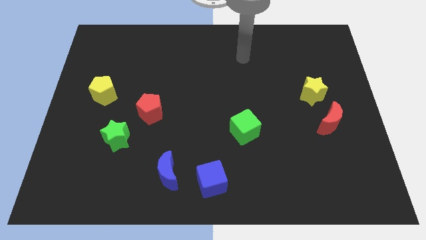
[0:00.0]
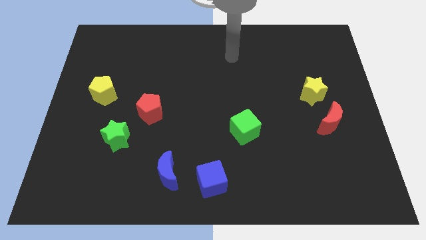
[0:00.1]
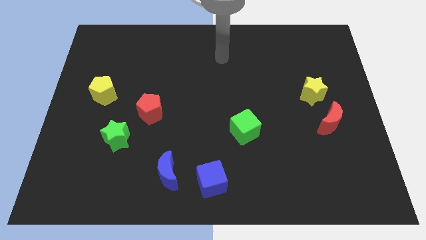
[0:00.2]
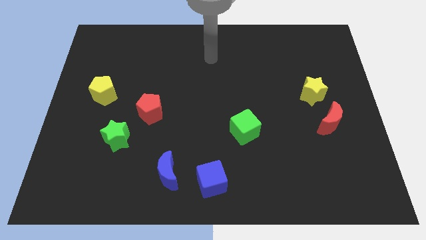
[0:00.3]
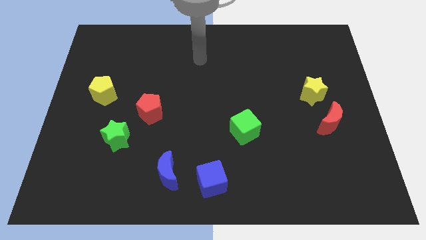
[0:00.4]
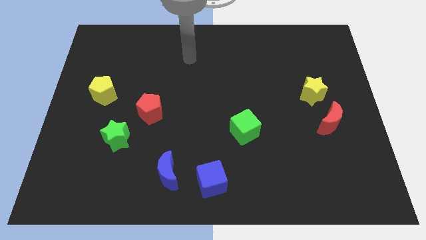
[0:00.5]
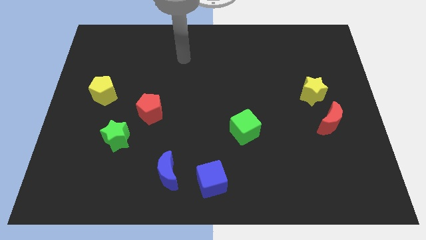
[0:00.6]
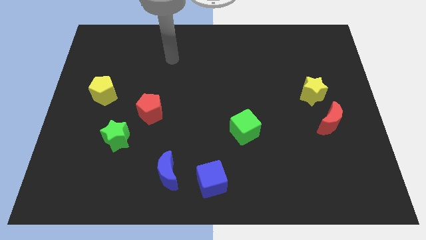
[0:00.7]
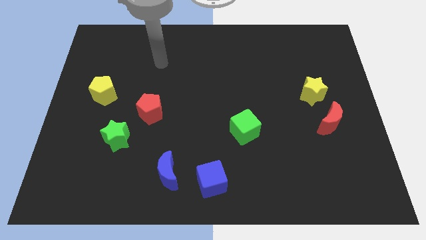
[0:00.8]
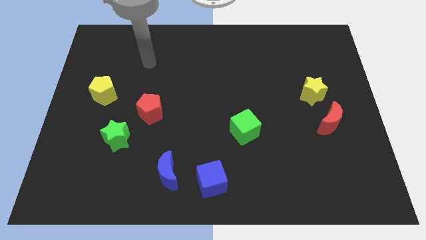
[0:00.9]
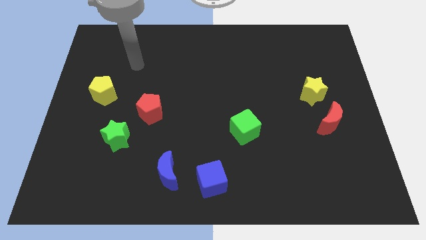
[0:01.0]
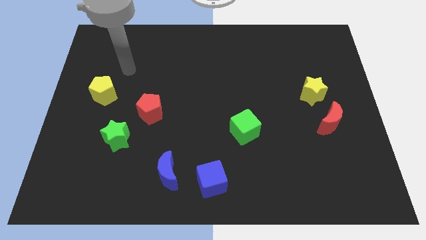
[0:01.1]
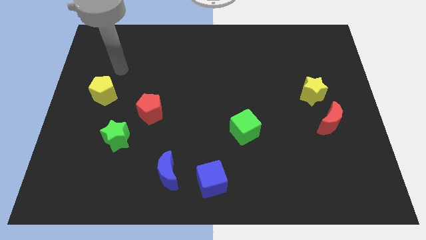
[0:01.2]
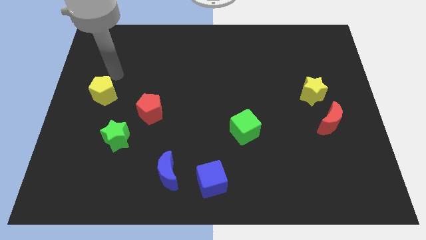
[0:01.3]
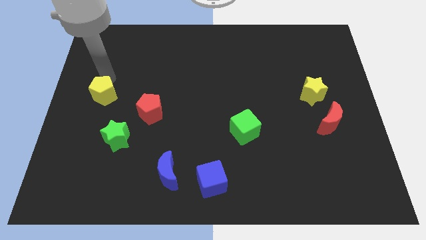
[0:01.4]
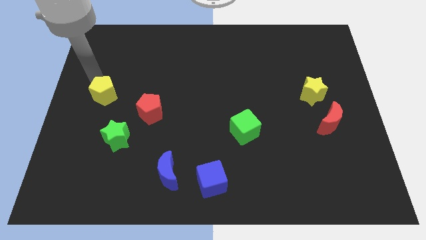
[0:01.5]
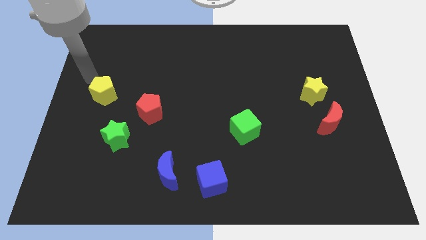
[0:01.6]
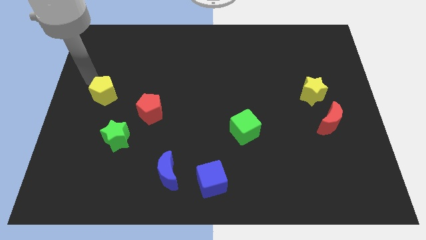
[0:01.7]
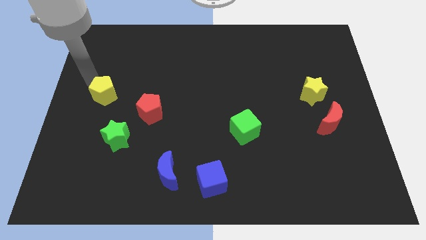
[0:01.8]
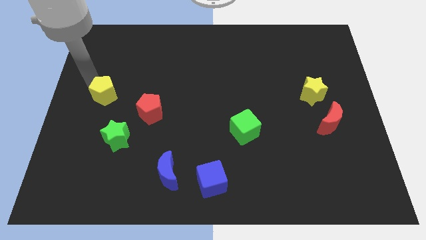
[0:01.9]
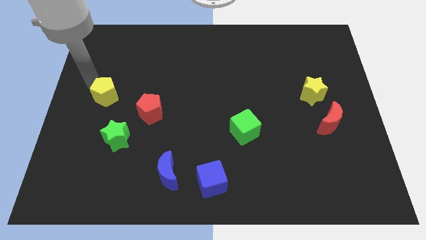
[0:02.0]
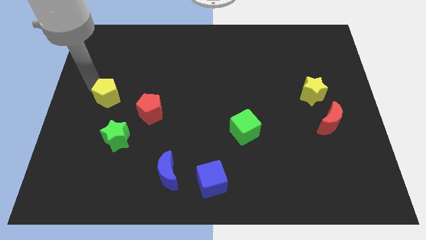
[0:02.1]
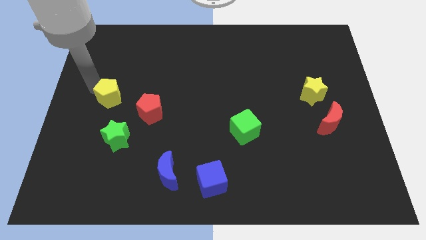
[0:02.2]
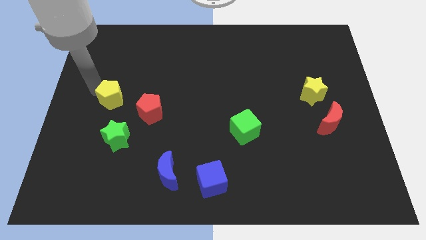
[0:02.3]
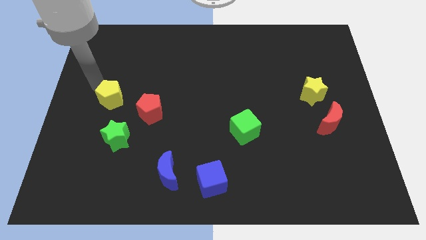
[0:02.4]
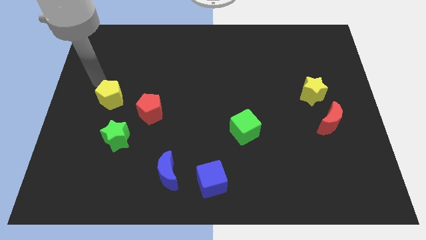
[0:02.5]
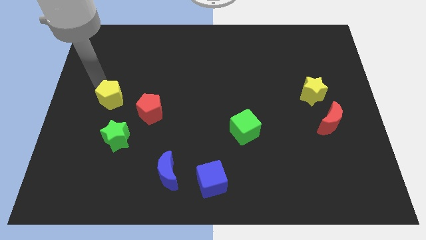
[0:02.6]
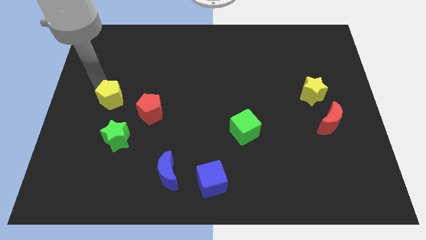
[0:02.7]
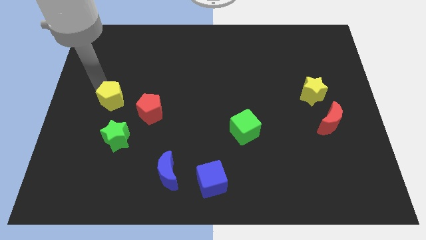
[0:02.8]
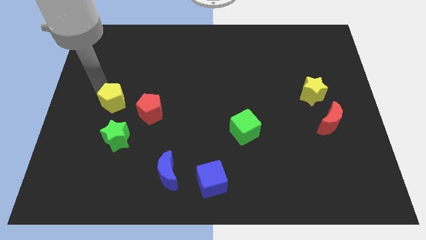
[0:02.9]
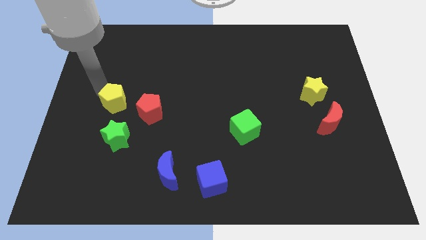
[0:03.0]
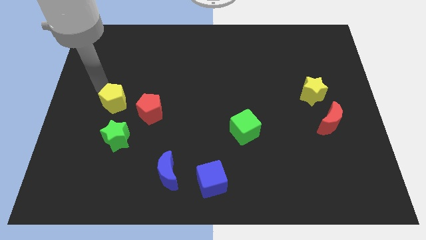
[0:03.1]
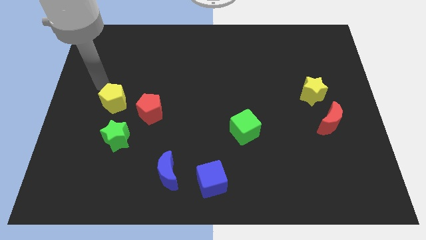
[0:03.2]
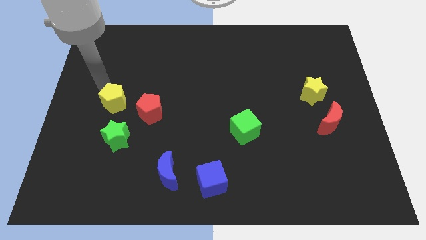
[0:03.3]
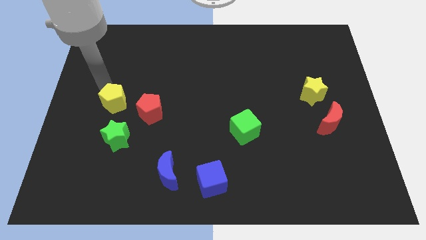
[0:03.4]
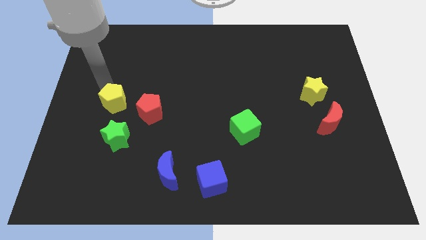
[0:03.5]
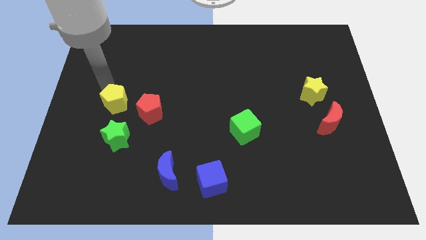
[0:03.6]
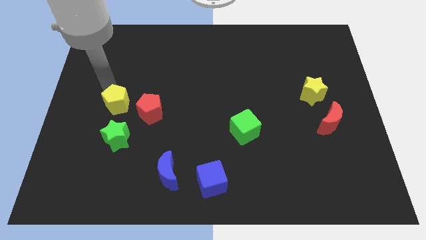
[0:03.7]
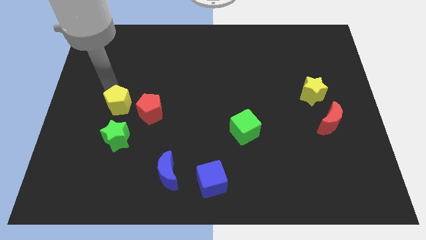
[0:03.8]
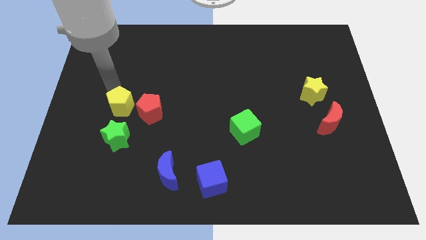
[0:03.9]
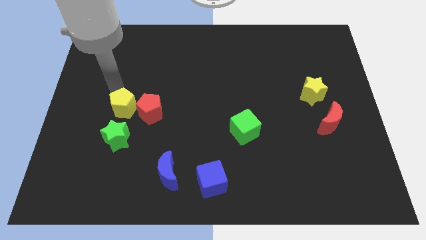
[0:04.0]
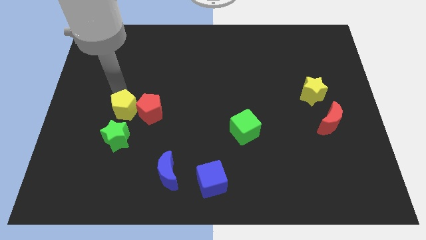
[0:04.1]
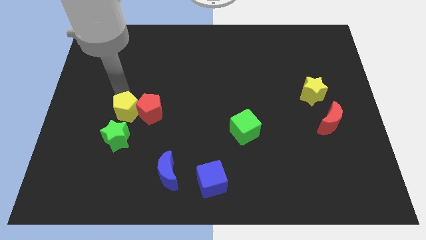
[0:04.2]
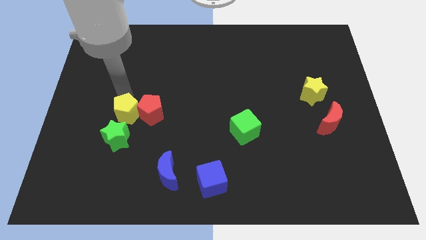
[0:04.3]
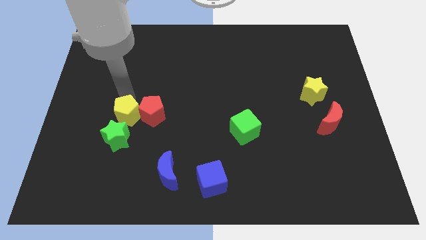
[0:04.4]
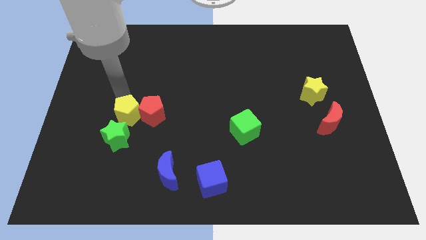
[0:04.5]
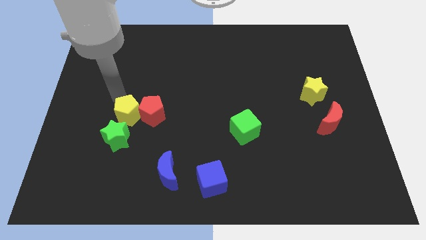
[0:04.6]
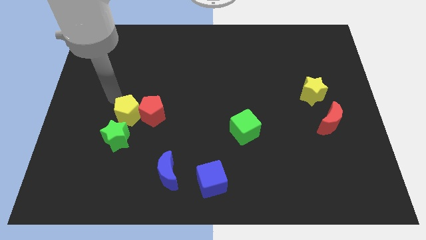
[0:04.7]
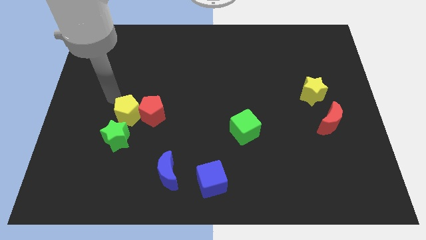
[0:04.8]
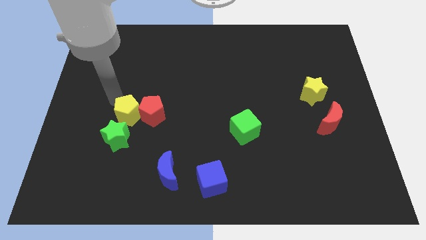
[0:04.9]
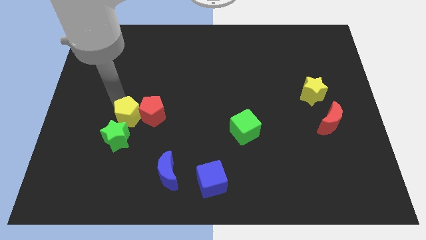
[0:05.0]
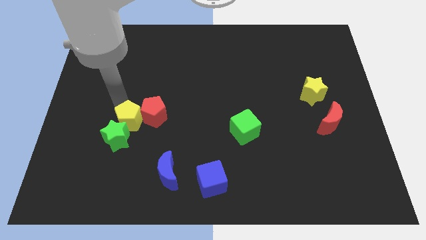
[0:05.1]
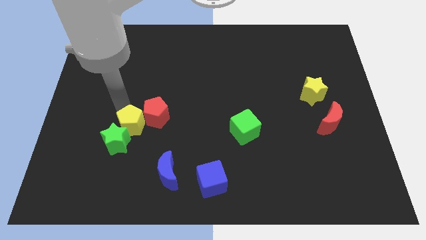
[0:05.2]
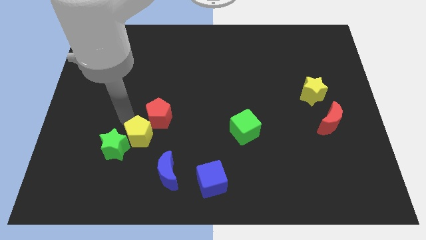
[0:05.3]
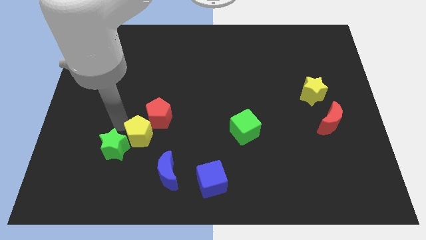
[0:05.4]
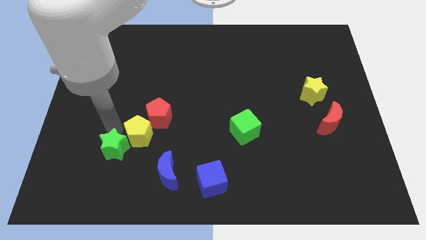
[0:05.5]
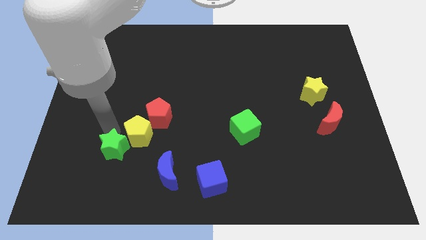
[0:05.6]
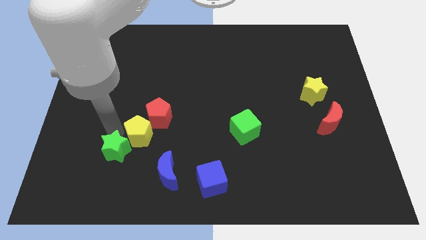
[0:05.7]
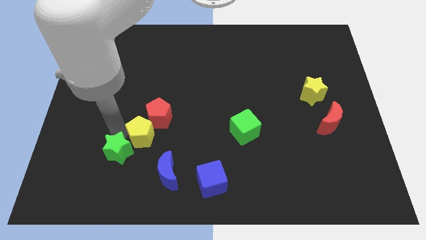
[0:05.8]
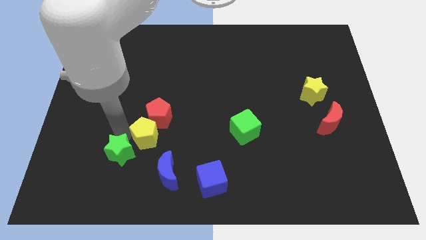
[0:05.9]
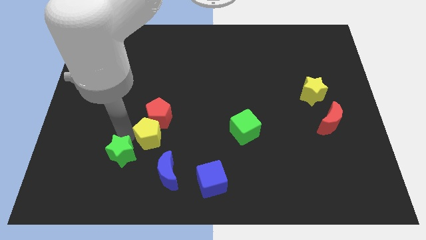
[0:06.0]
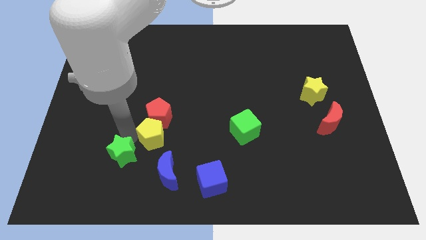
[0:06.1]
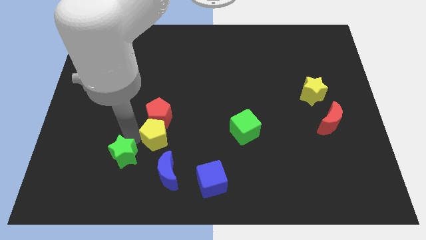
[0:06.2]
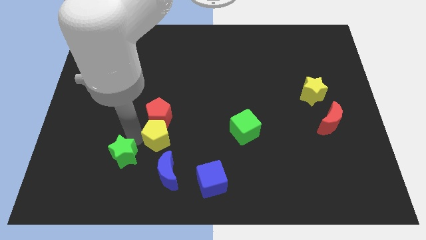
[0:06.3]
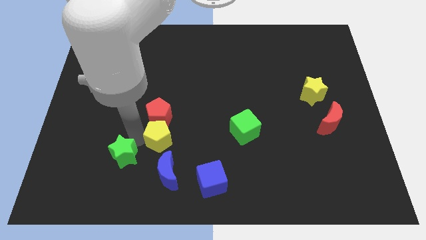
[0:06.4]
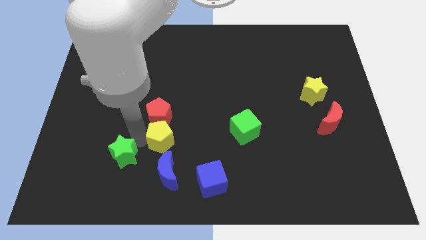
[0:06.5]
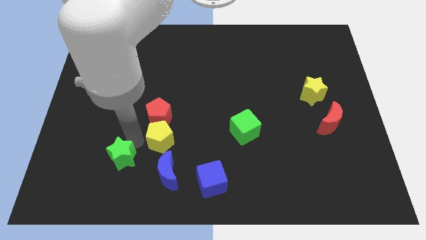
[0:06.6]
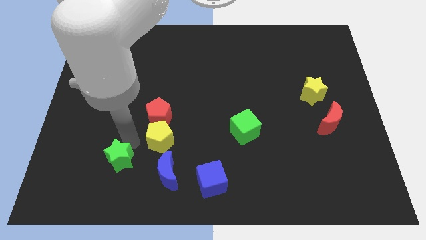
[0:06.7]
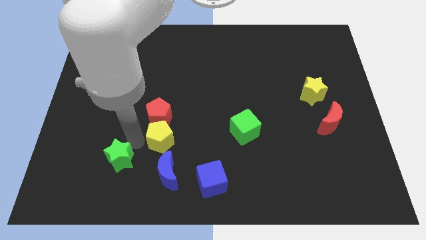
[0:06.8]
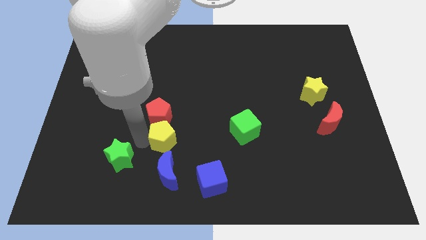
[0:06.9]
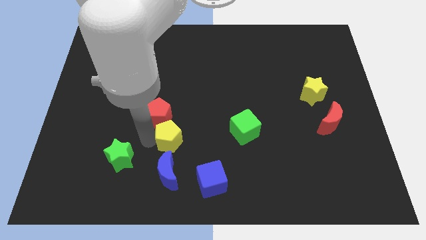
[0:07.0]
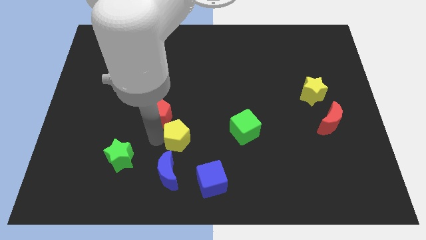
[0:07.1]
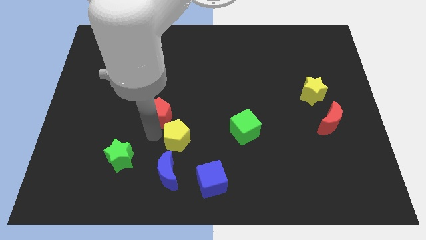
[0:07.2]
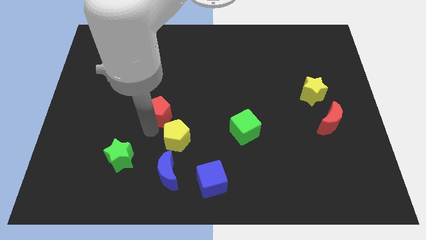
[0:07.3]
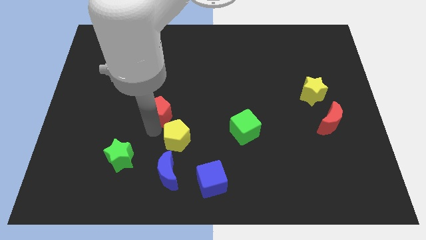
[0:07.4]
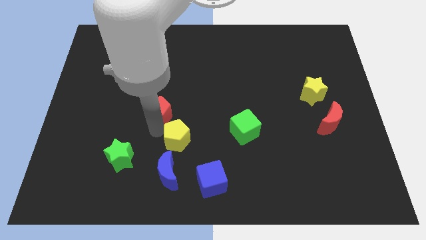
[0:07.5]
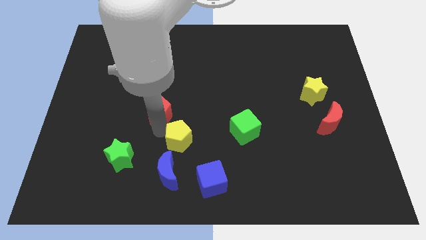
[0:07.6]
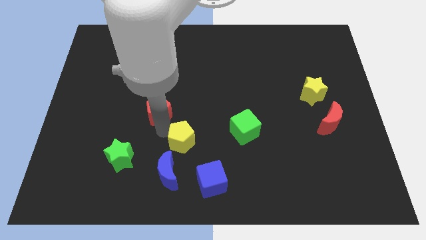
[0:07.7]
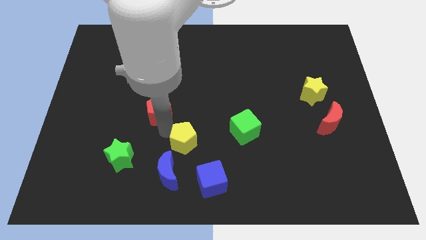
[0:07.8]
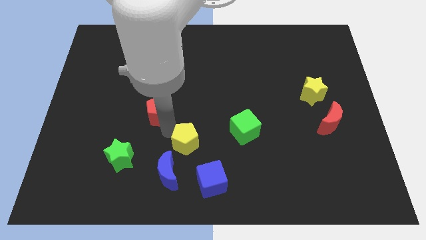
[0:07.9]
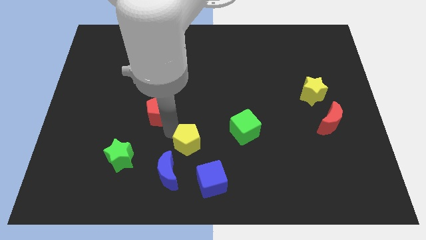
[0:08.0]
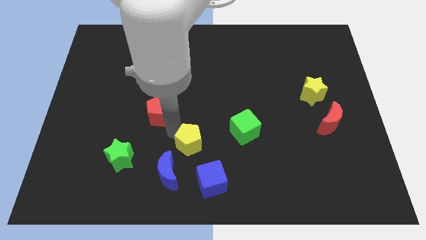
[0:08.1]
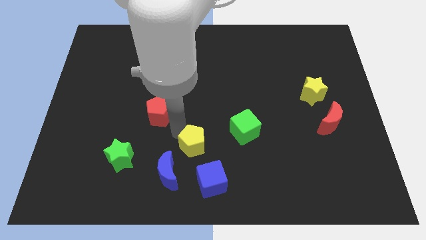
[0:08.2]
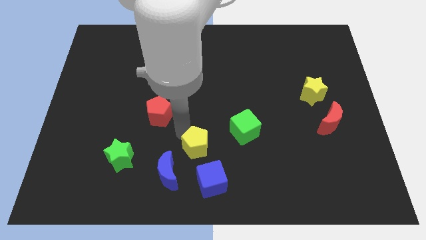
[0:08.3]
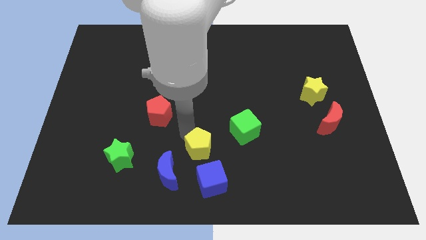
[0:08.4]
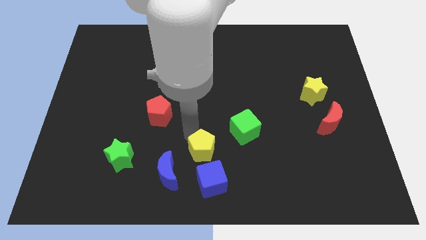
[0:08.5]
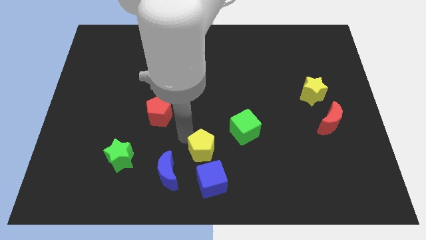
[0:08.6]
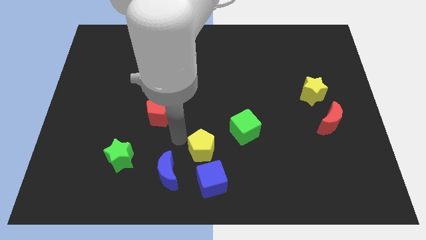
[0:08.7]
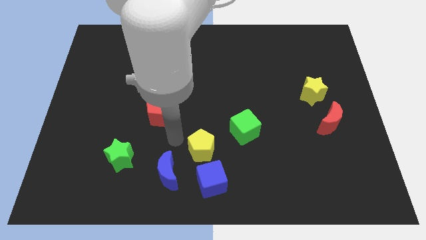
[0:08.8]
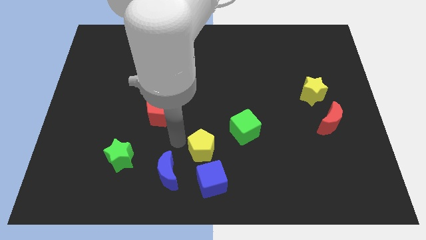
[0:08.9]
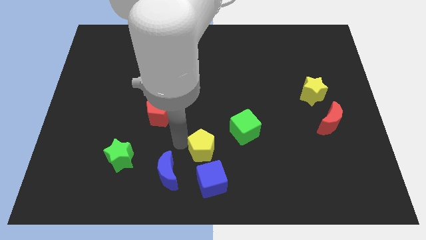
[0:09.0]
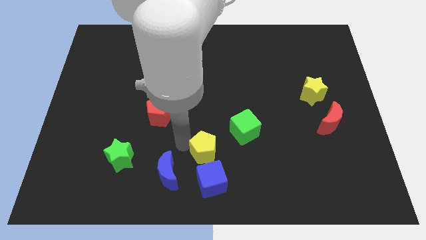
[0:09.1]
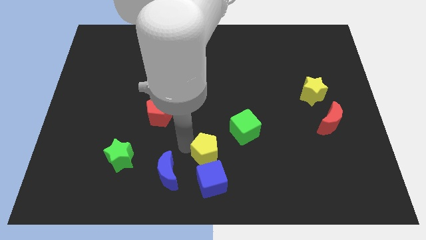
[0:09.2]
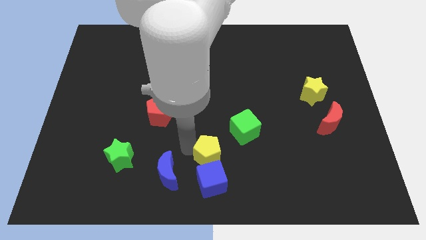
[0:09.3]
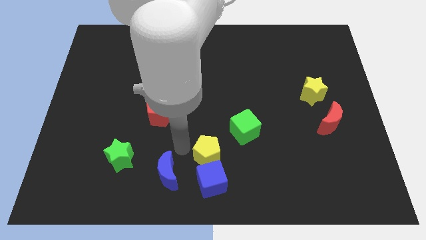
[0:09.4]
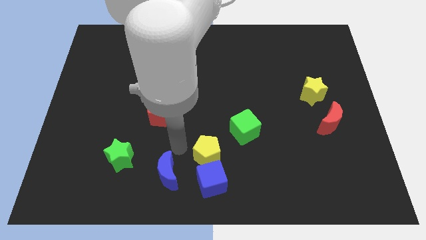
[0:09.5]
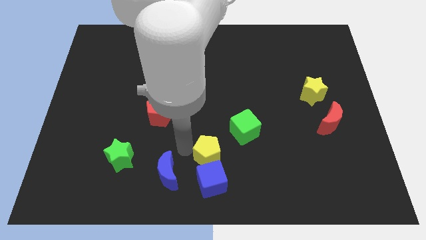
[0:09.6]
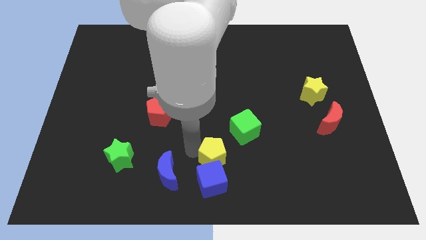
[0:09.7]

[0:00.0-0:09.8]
move the yellow pentagon to the top right of the blue cube
